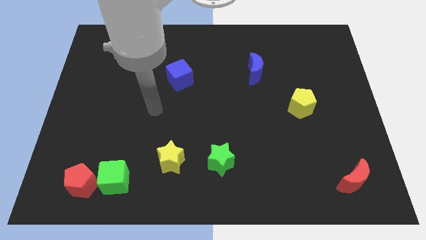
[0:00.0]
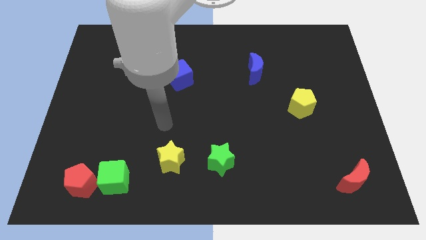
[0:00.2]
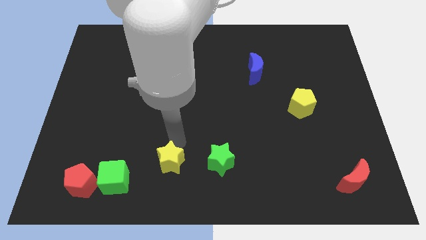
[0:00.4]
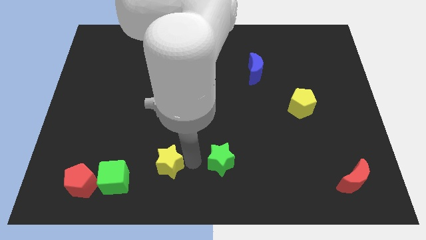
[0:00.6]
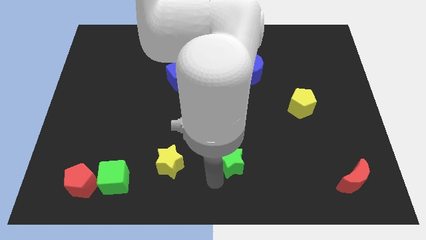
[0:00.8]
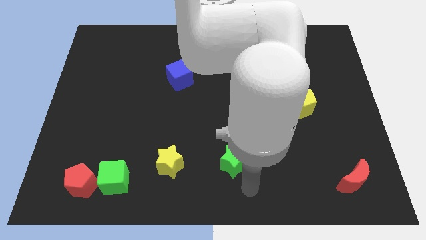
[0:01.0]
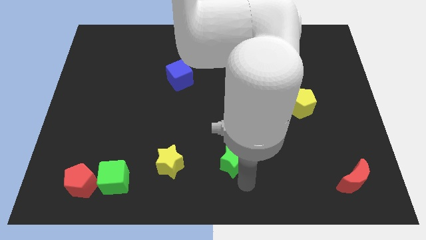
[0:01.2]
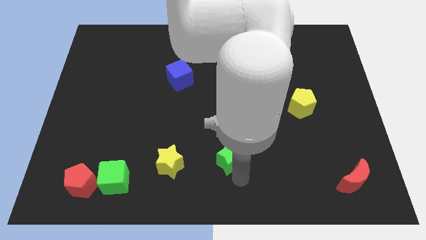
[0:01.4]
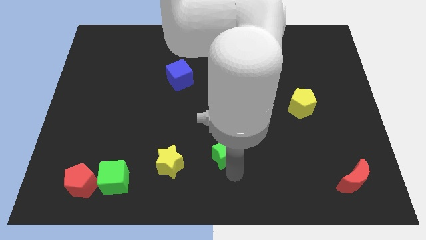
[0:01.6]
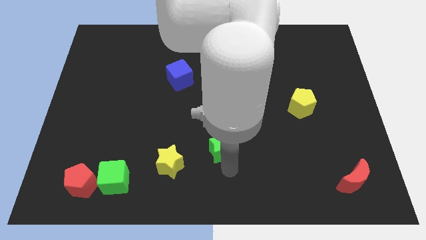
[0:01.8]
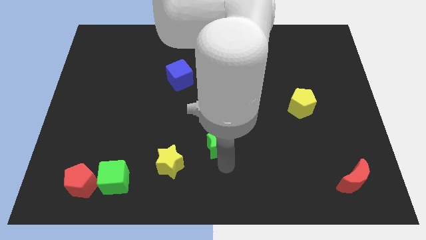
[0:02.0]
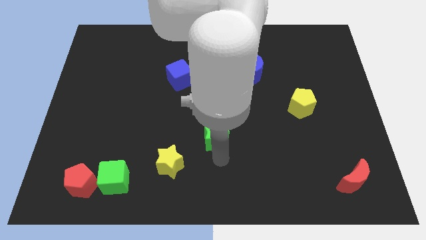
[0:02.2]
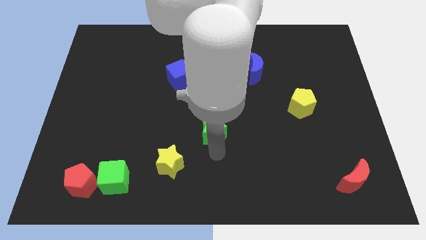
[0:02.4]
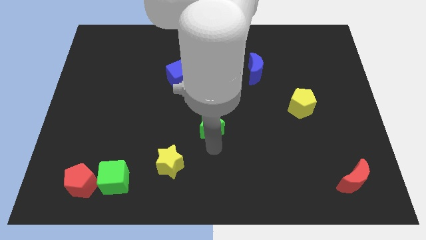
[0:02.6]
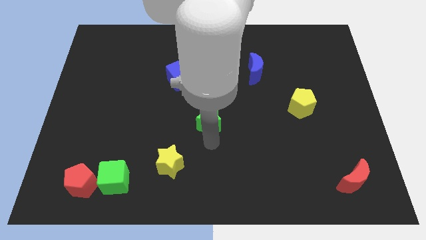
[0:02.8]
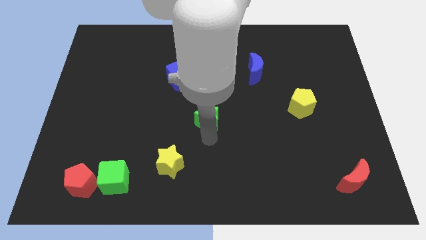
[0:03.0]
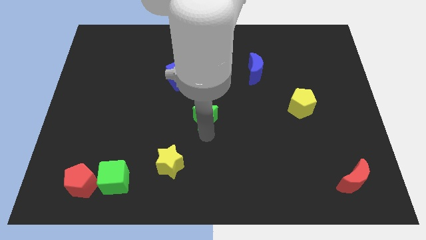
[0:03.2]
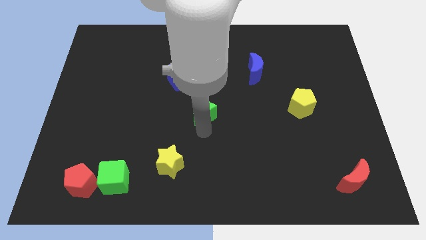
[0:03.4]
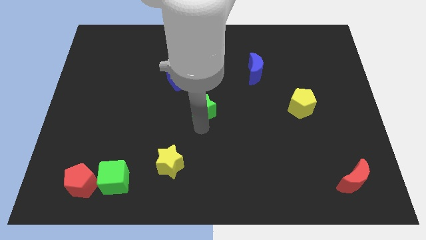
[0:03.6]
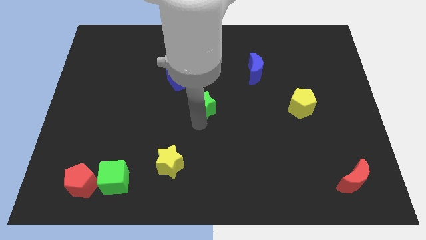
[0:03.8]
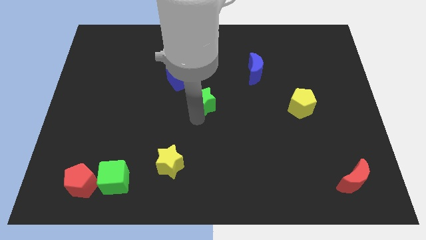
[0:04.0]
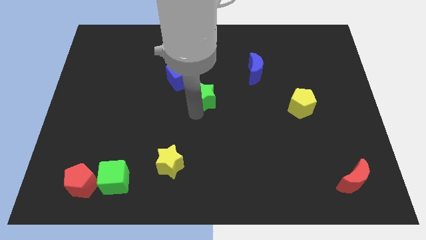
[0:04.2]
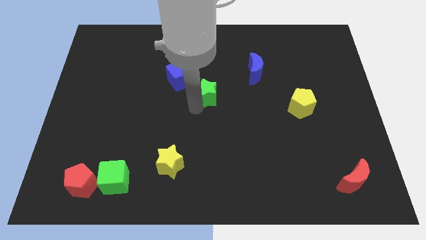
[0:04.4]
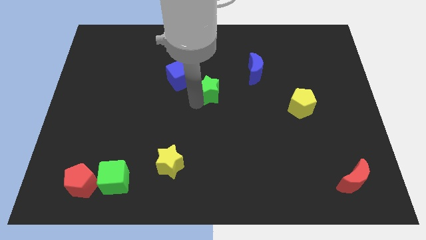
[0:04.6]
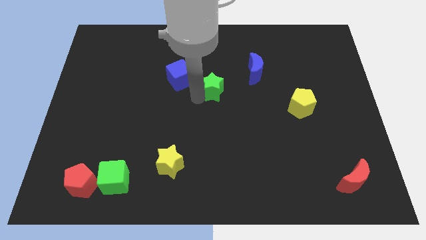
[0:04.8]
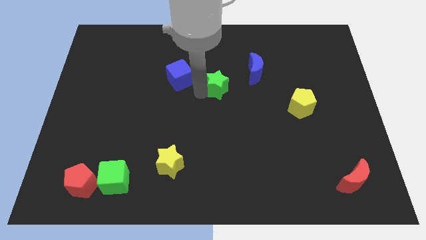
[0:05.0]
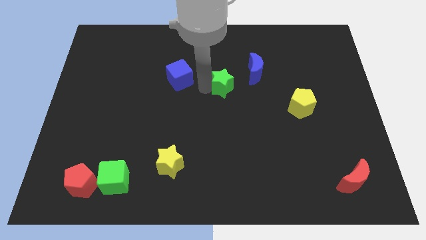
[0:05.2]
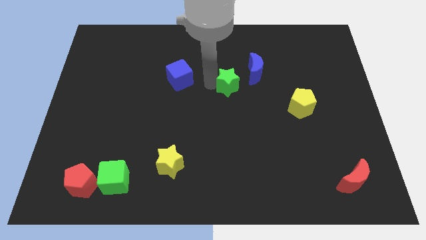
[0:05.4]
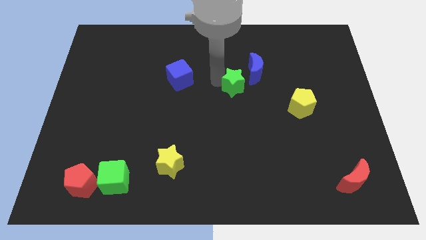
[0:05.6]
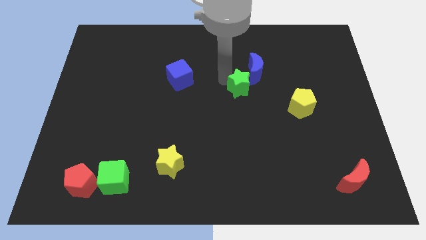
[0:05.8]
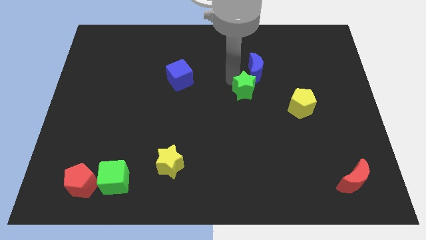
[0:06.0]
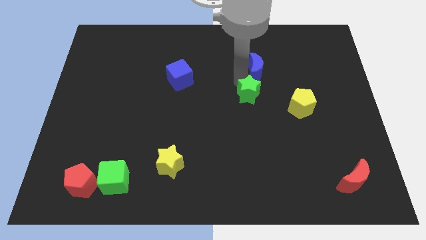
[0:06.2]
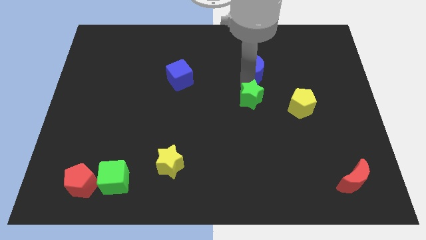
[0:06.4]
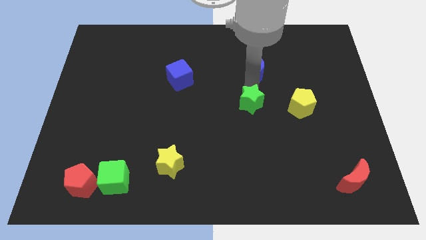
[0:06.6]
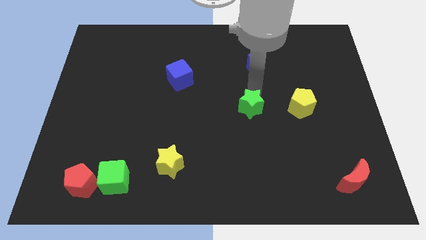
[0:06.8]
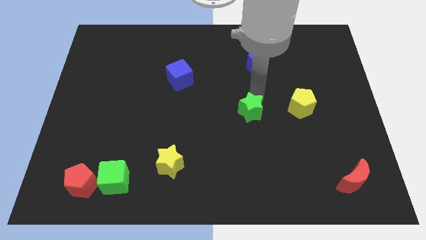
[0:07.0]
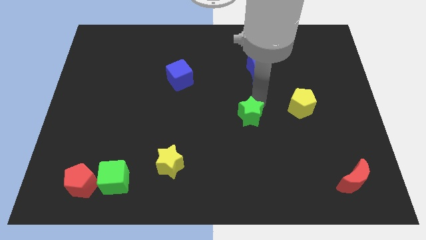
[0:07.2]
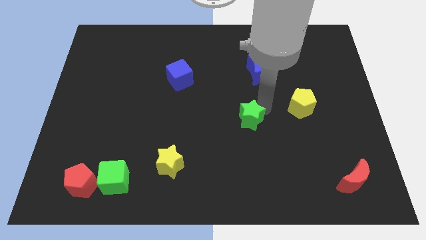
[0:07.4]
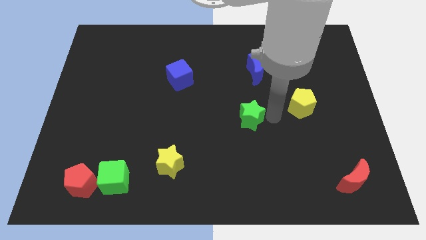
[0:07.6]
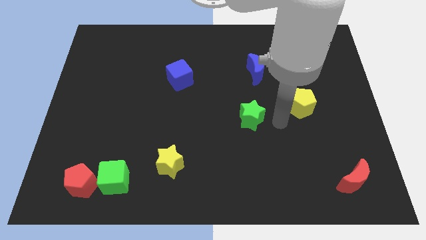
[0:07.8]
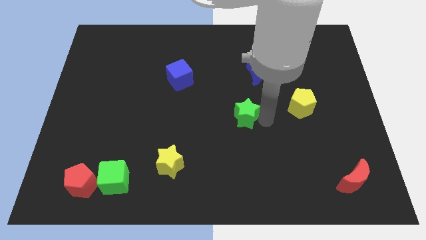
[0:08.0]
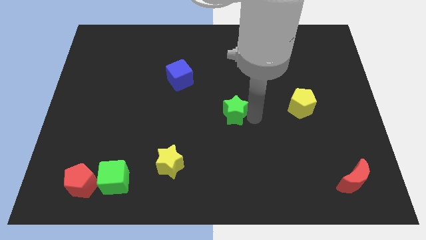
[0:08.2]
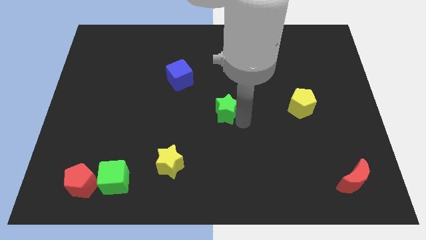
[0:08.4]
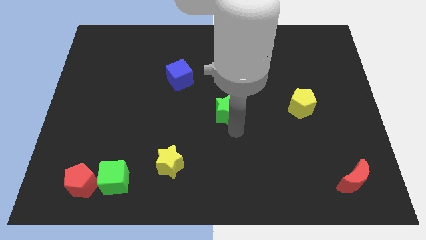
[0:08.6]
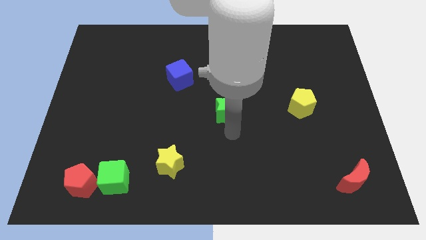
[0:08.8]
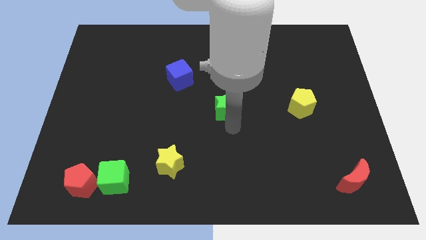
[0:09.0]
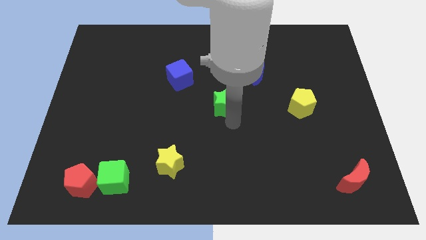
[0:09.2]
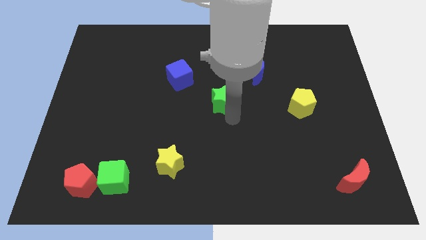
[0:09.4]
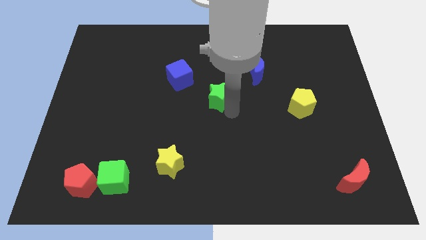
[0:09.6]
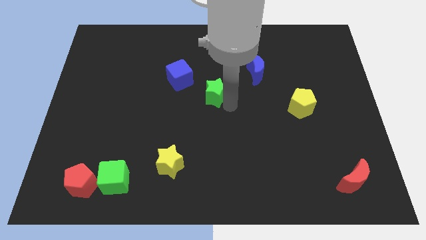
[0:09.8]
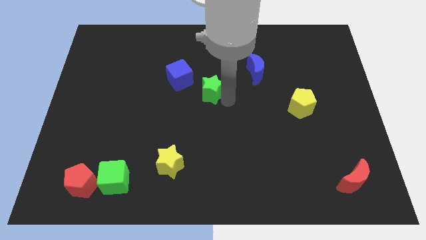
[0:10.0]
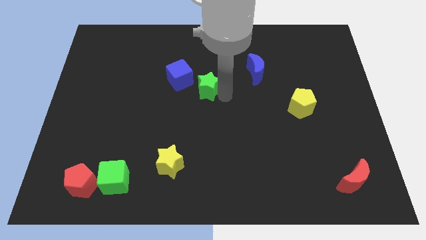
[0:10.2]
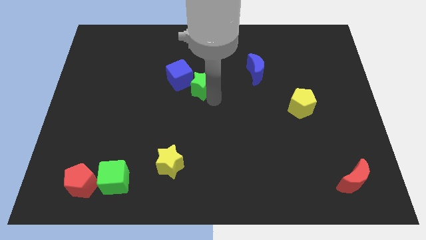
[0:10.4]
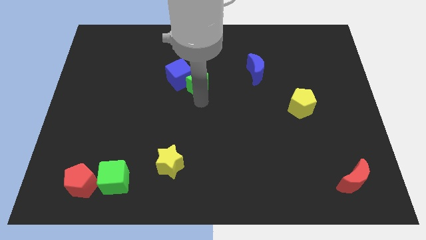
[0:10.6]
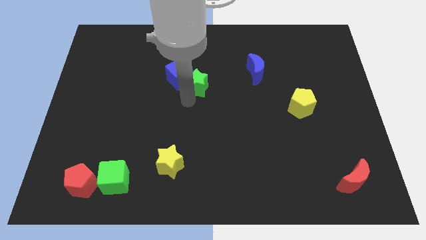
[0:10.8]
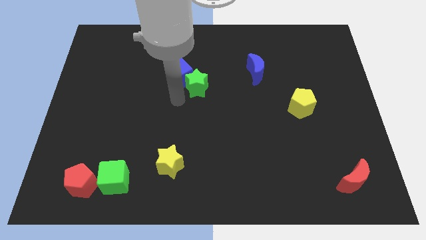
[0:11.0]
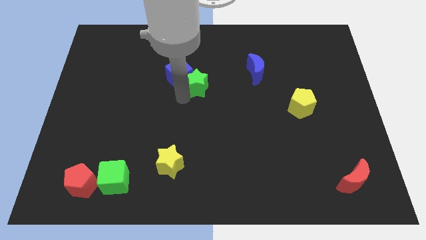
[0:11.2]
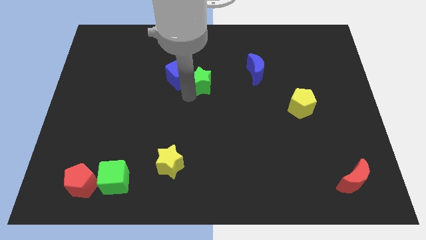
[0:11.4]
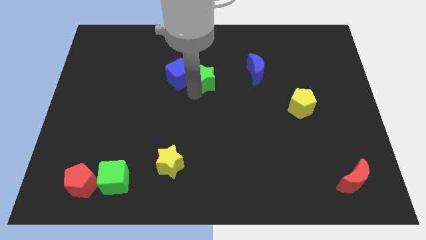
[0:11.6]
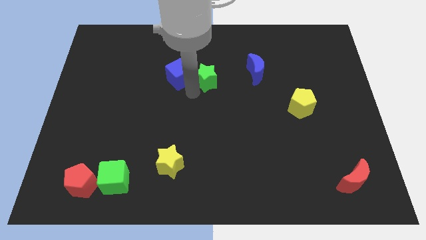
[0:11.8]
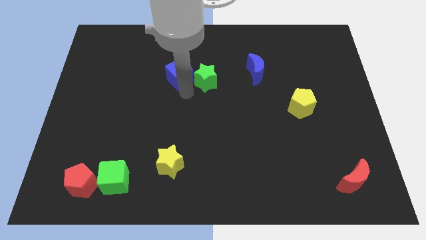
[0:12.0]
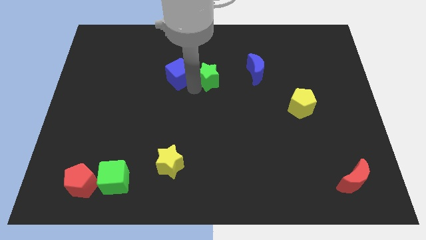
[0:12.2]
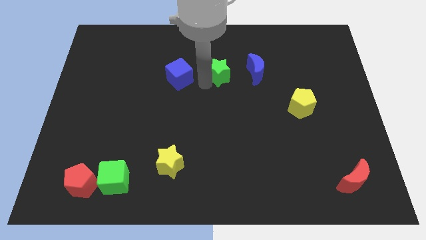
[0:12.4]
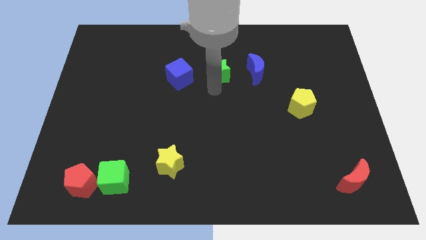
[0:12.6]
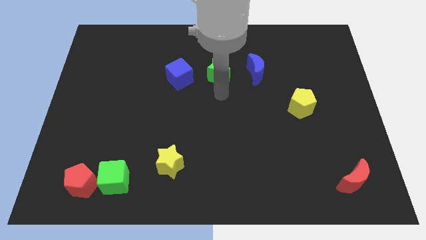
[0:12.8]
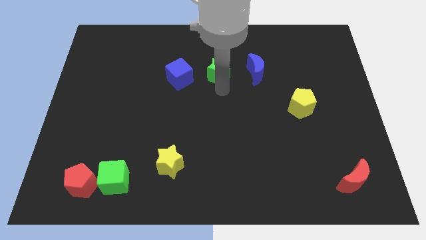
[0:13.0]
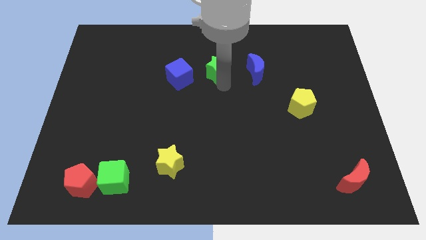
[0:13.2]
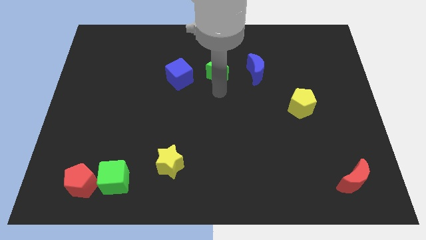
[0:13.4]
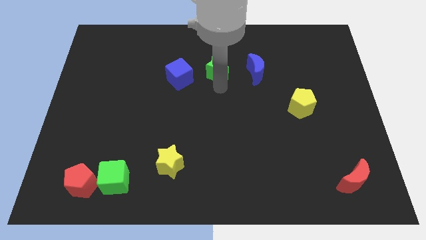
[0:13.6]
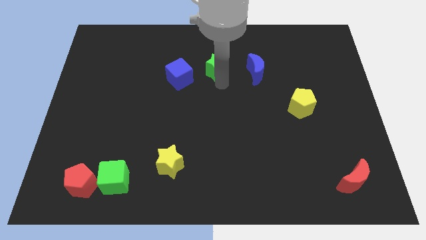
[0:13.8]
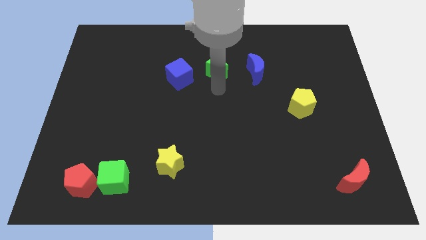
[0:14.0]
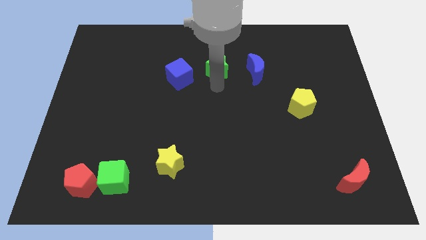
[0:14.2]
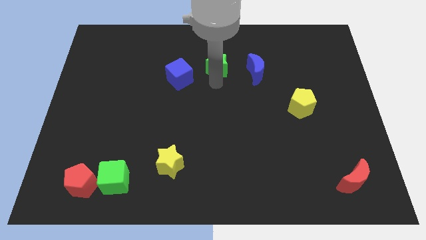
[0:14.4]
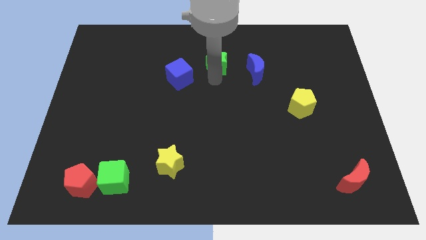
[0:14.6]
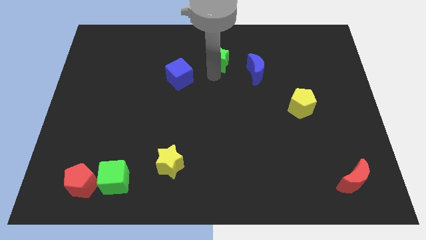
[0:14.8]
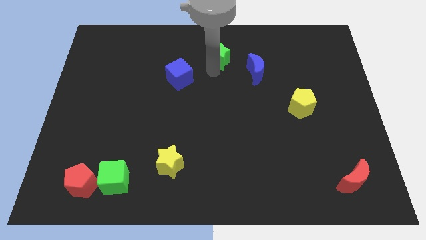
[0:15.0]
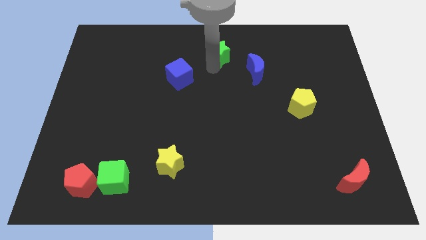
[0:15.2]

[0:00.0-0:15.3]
put the green star to the top side
